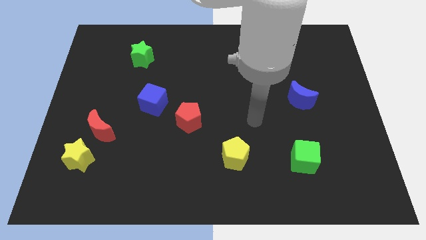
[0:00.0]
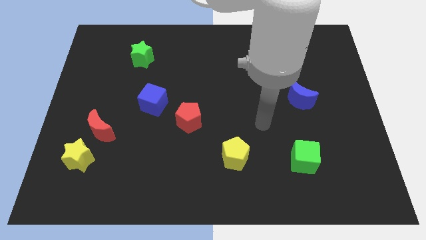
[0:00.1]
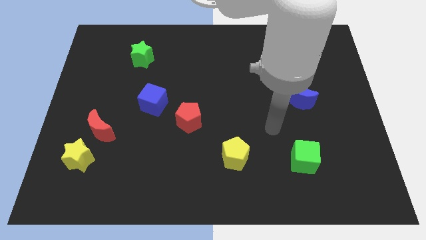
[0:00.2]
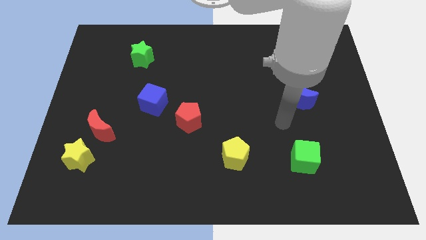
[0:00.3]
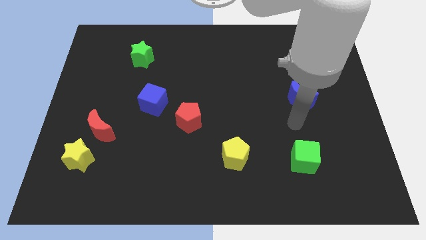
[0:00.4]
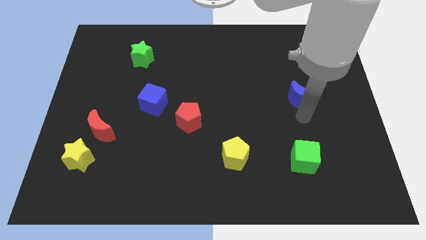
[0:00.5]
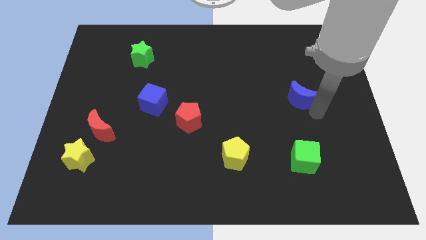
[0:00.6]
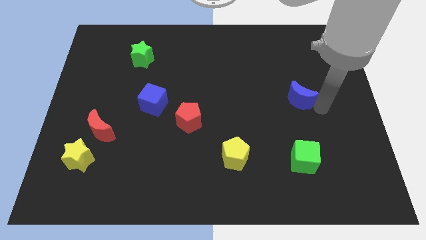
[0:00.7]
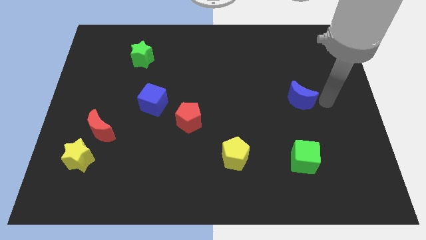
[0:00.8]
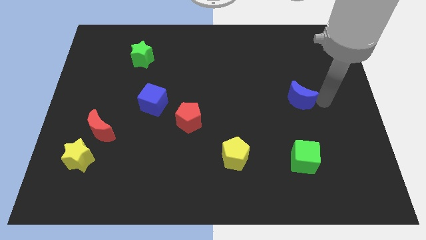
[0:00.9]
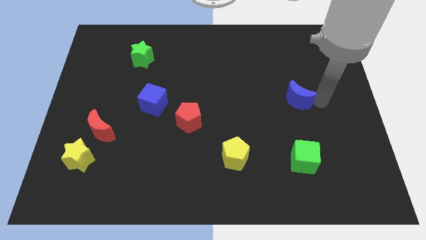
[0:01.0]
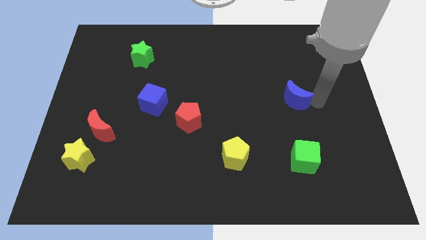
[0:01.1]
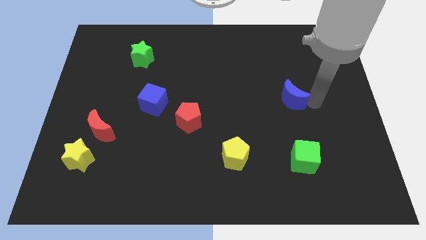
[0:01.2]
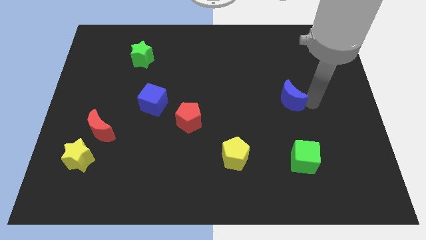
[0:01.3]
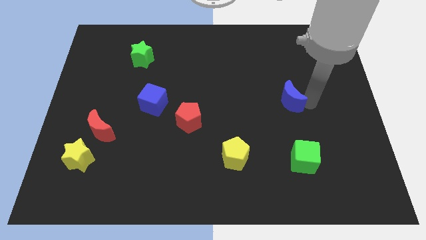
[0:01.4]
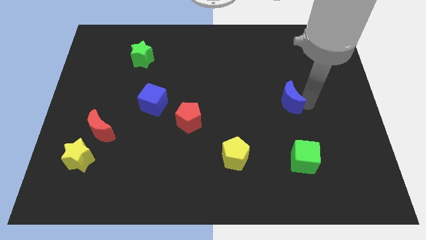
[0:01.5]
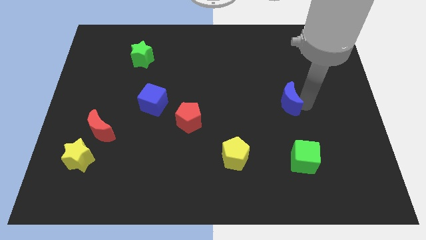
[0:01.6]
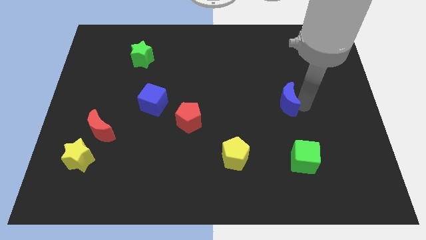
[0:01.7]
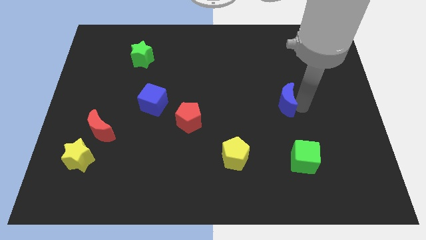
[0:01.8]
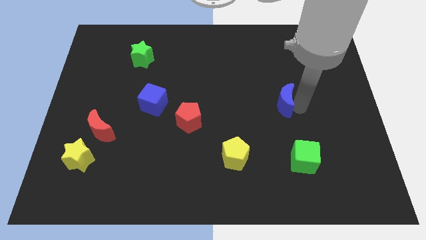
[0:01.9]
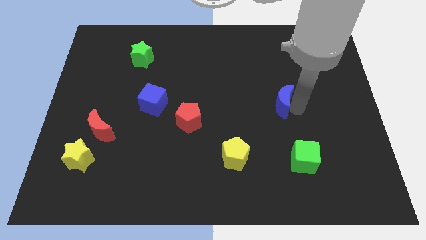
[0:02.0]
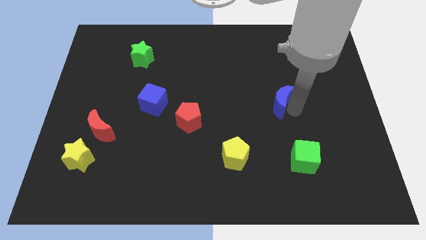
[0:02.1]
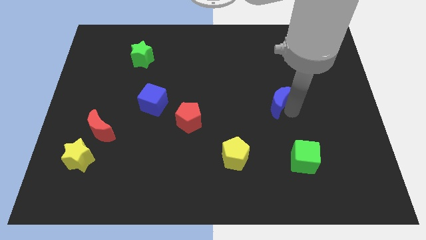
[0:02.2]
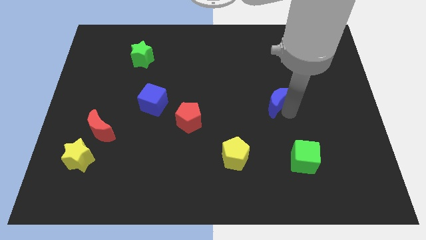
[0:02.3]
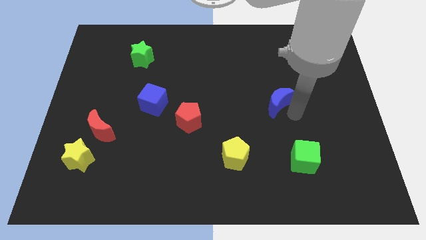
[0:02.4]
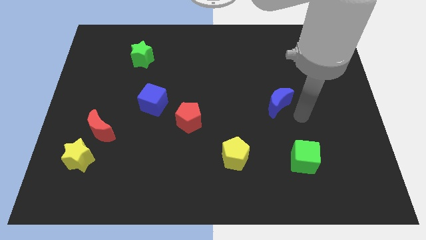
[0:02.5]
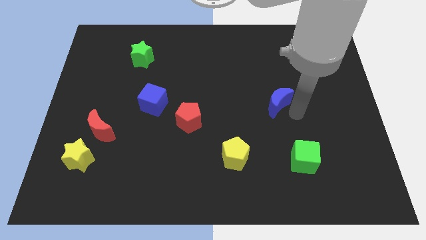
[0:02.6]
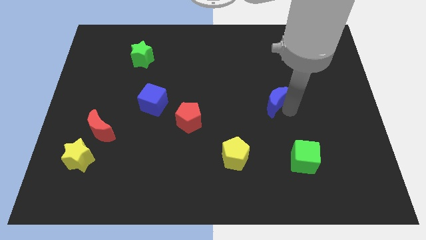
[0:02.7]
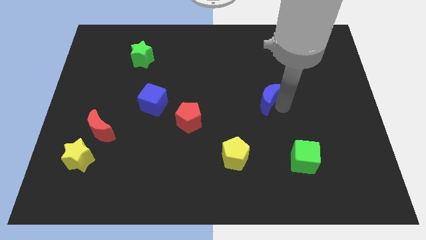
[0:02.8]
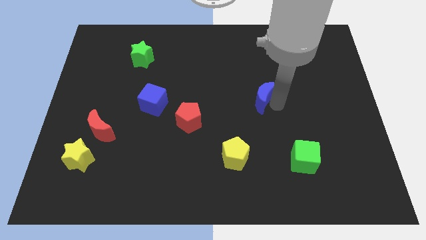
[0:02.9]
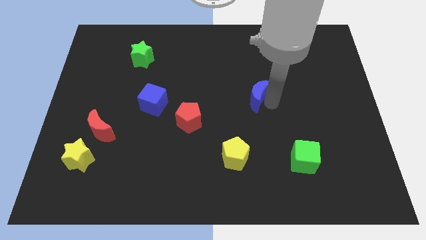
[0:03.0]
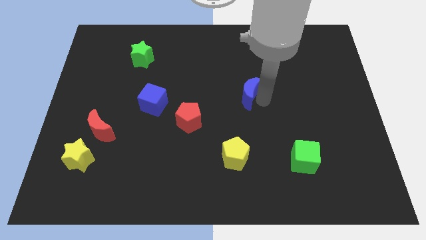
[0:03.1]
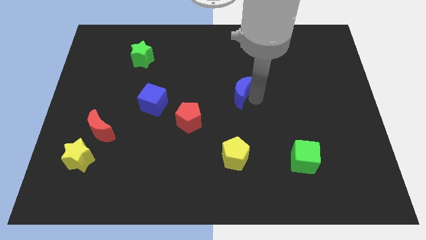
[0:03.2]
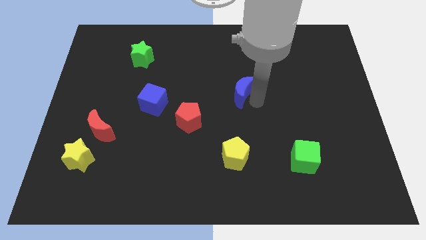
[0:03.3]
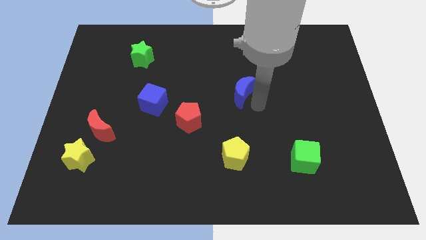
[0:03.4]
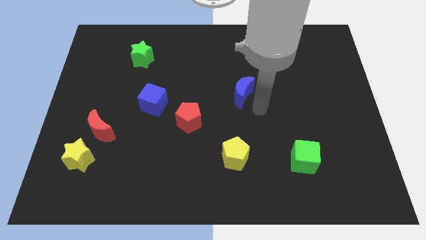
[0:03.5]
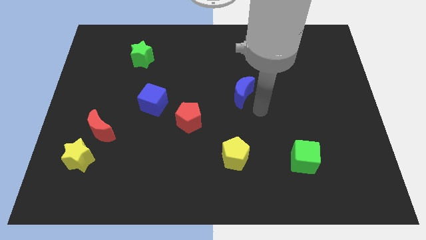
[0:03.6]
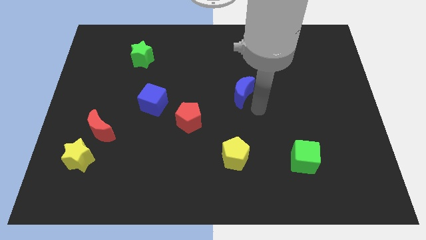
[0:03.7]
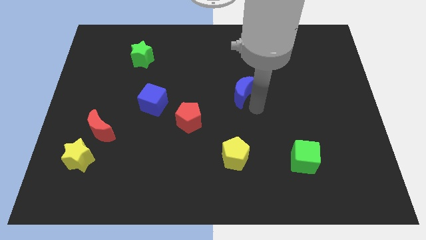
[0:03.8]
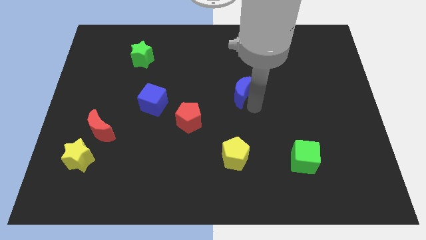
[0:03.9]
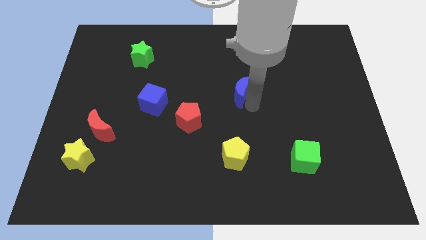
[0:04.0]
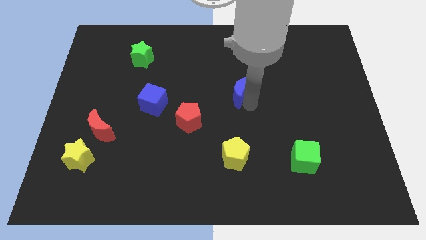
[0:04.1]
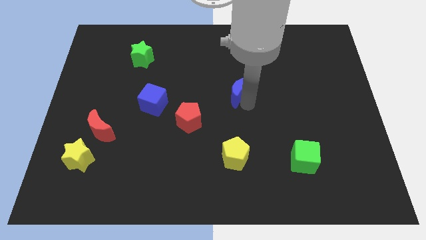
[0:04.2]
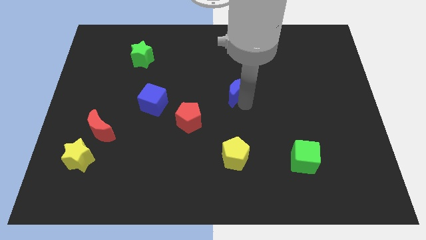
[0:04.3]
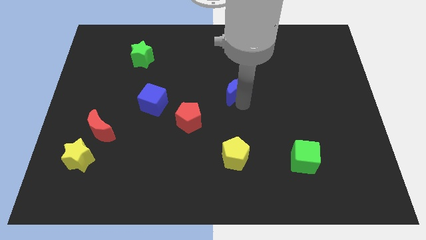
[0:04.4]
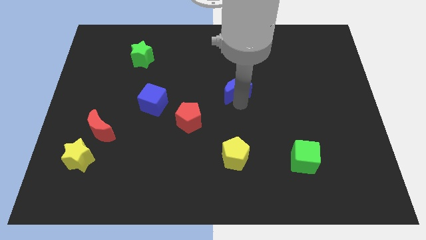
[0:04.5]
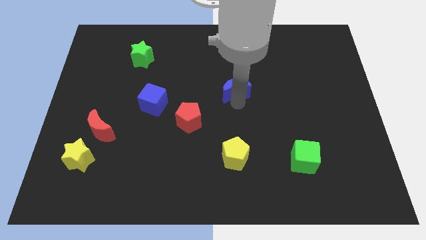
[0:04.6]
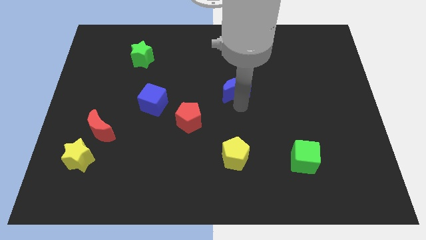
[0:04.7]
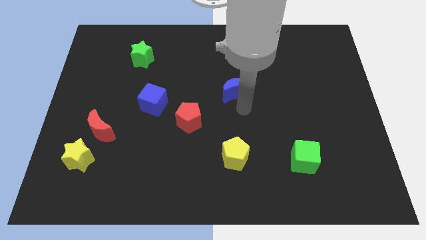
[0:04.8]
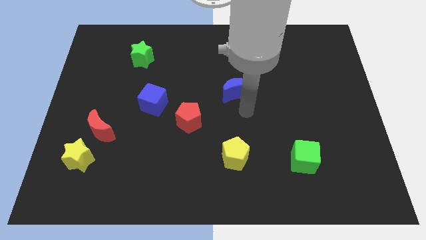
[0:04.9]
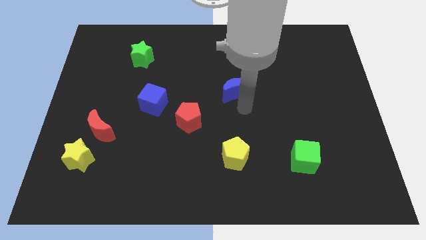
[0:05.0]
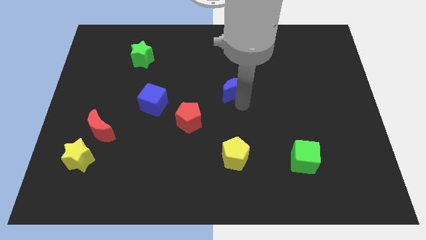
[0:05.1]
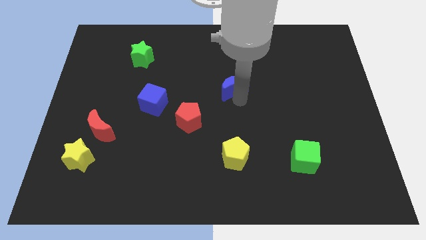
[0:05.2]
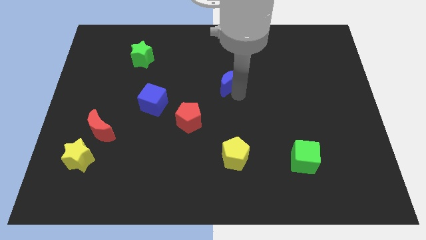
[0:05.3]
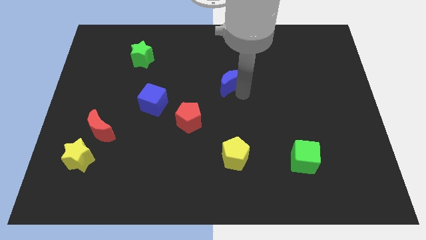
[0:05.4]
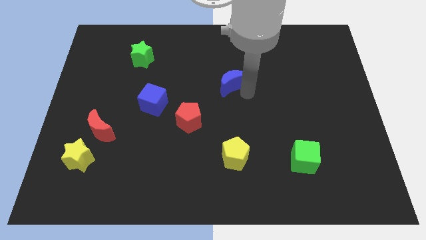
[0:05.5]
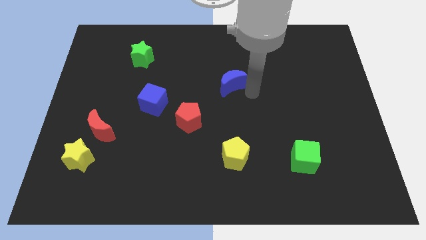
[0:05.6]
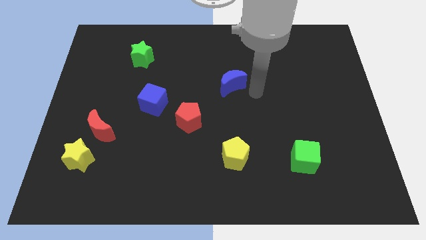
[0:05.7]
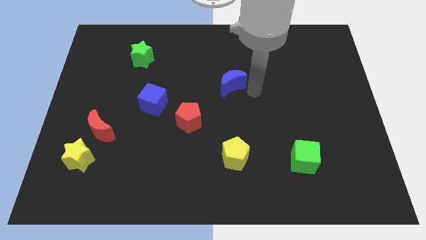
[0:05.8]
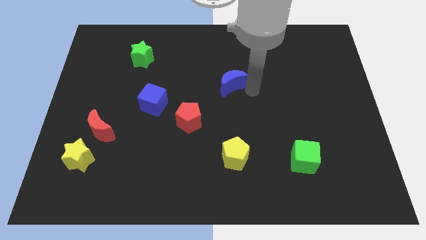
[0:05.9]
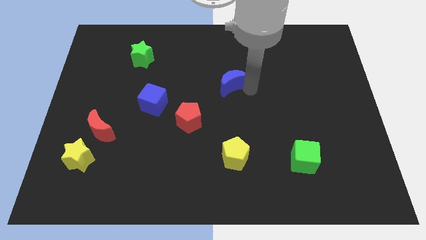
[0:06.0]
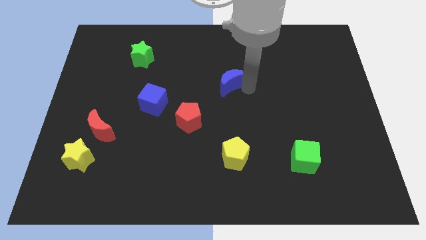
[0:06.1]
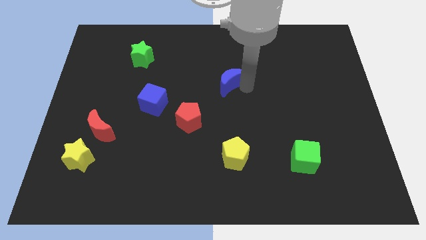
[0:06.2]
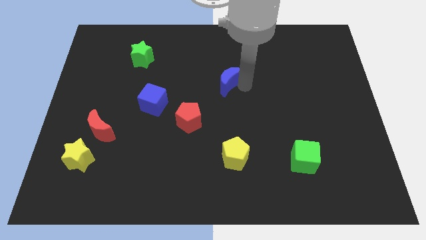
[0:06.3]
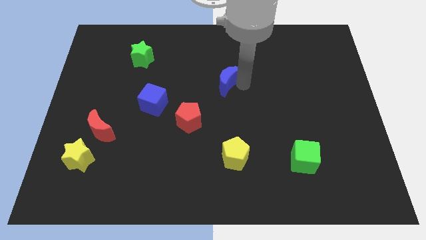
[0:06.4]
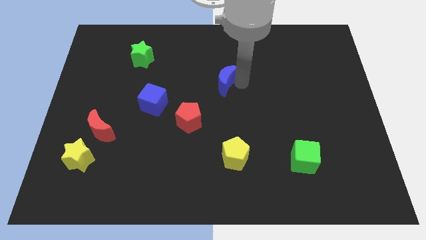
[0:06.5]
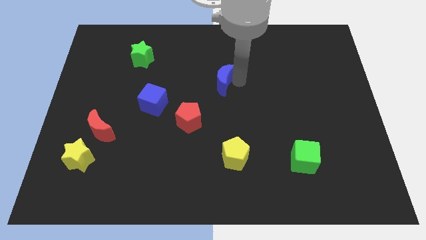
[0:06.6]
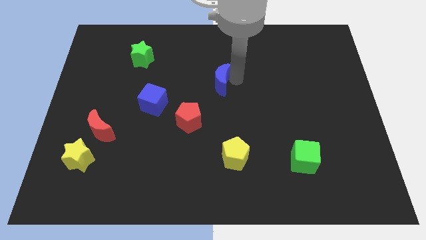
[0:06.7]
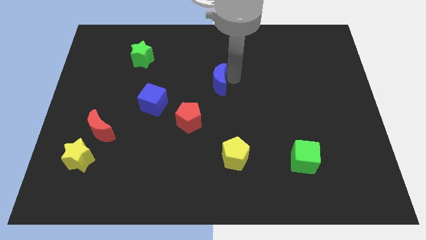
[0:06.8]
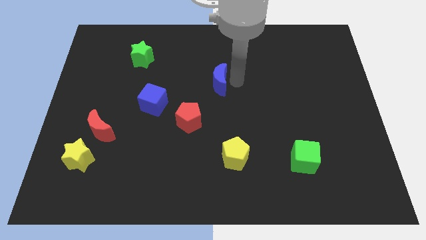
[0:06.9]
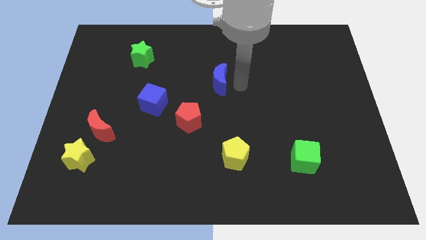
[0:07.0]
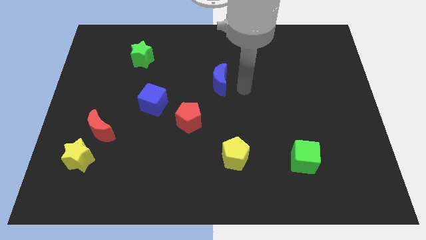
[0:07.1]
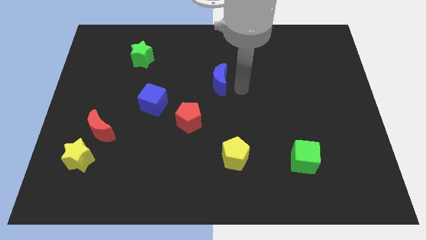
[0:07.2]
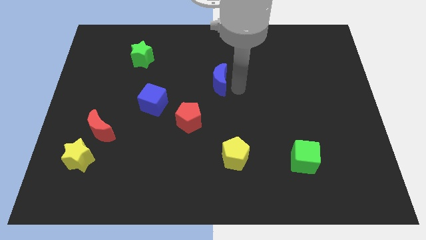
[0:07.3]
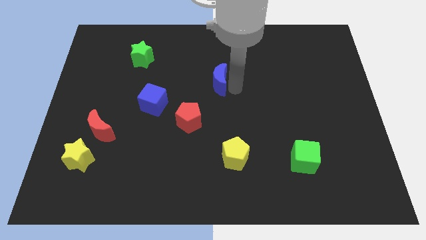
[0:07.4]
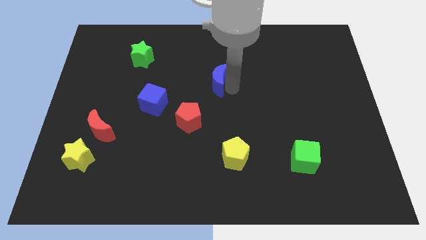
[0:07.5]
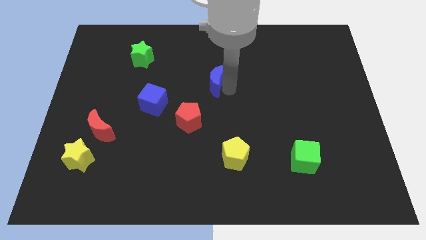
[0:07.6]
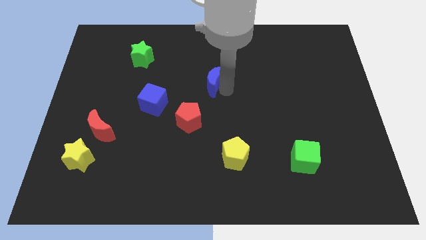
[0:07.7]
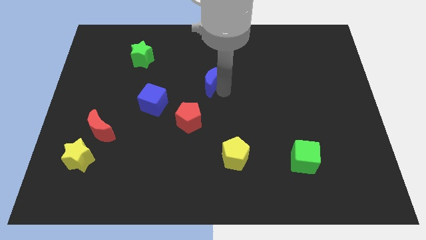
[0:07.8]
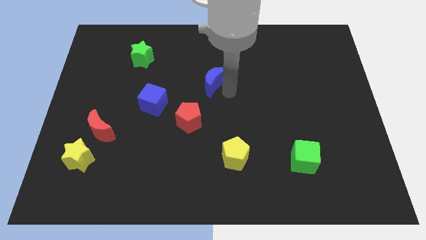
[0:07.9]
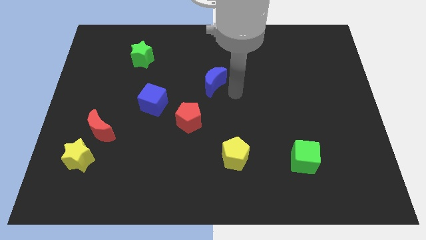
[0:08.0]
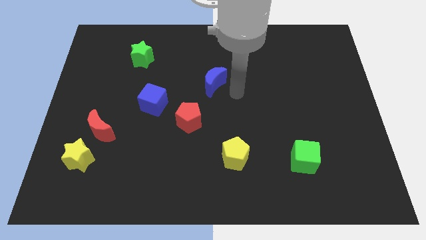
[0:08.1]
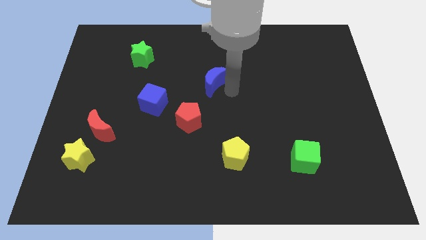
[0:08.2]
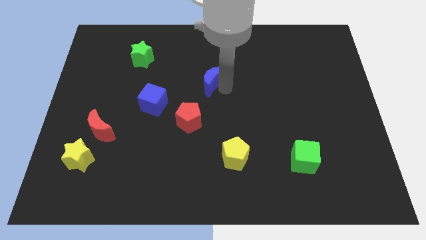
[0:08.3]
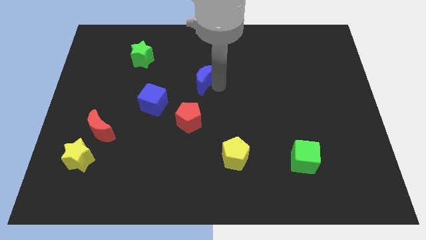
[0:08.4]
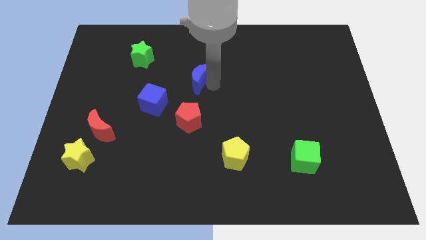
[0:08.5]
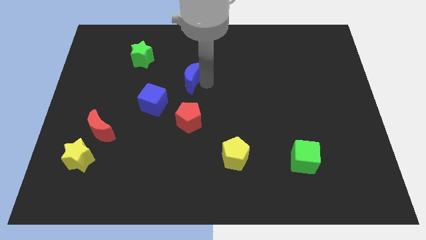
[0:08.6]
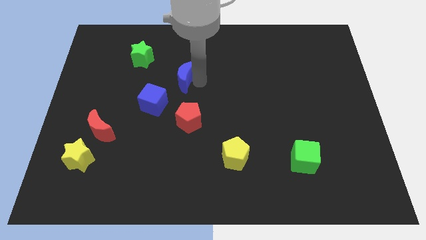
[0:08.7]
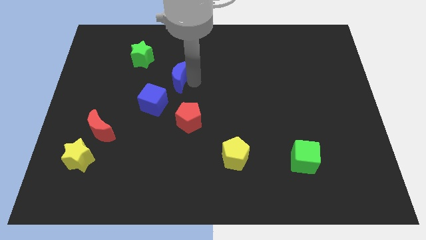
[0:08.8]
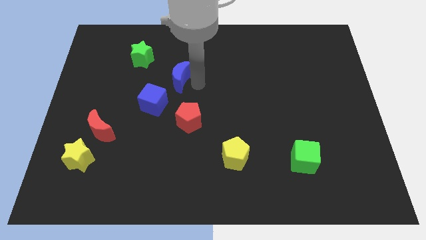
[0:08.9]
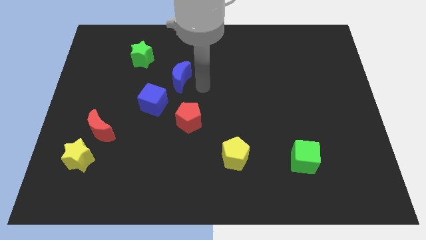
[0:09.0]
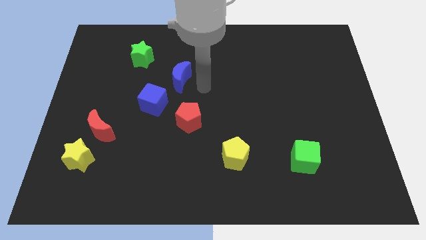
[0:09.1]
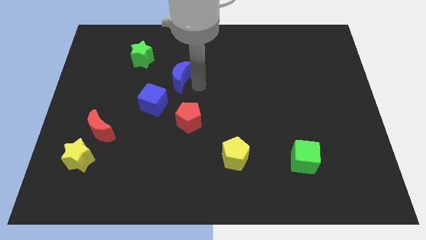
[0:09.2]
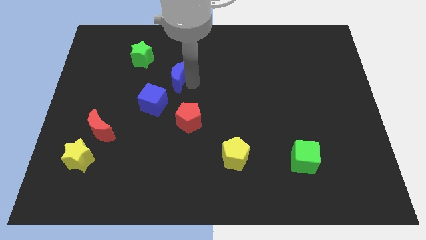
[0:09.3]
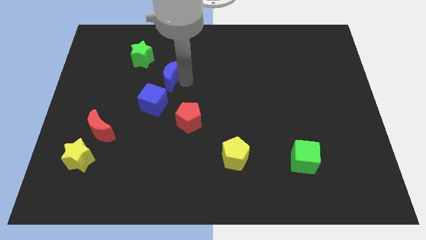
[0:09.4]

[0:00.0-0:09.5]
put the blue moon to the top side of the blue cube
